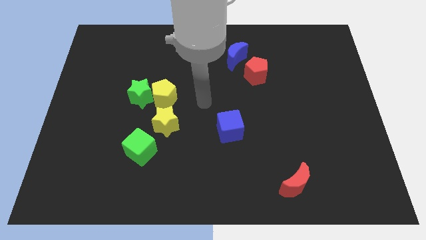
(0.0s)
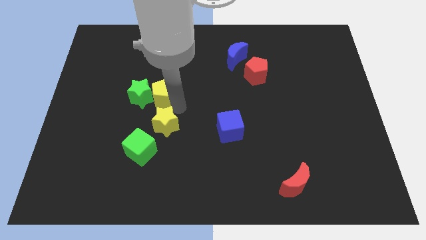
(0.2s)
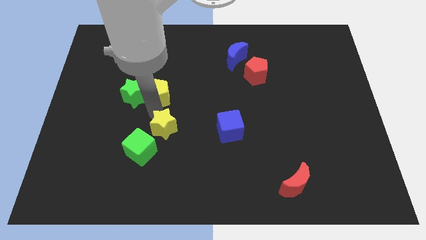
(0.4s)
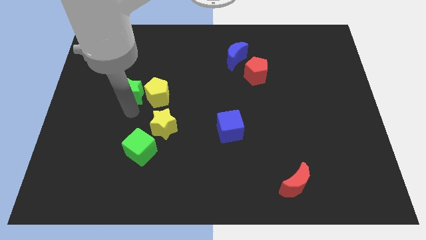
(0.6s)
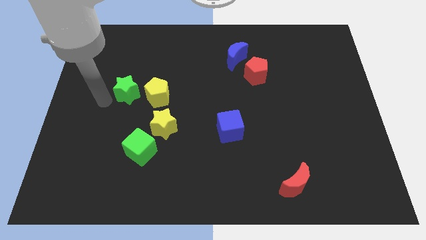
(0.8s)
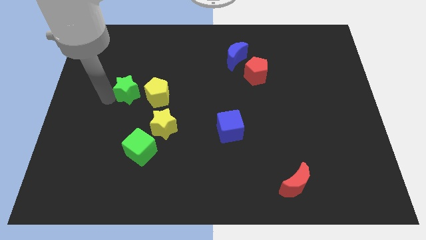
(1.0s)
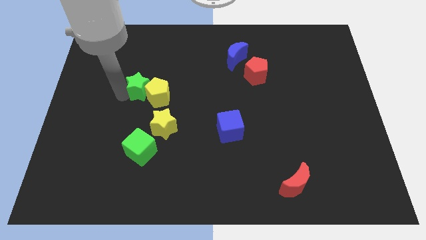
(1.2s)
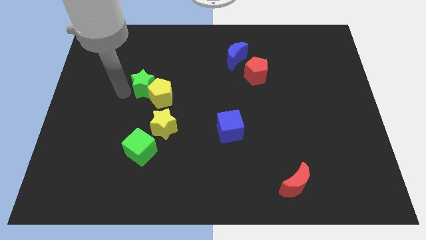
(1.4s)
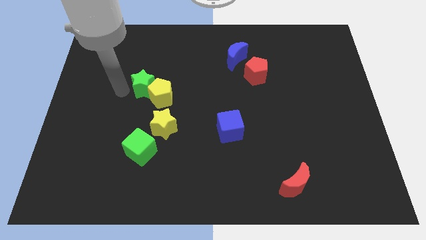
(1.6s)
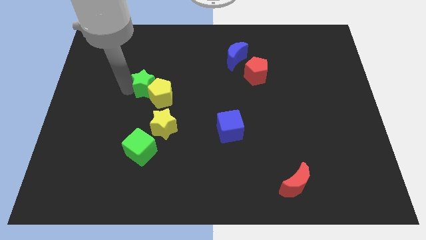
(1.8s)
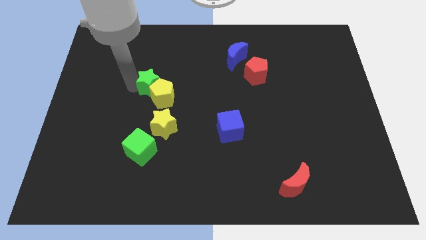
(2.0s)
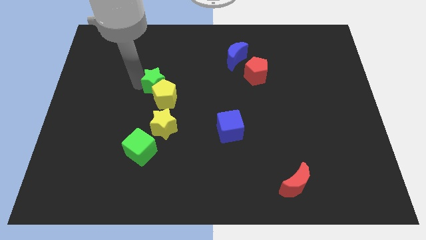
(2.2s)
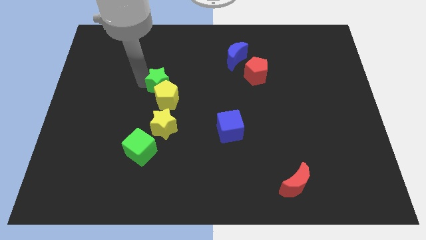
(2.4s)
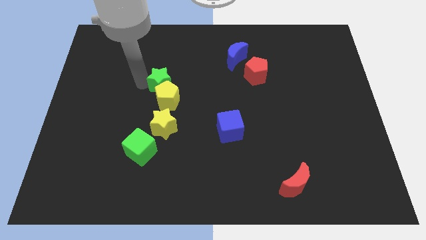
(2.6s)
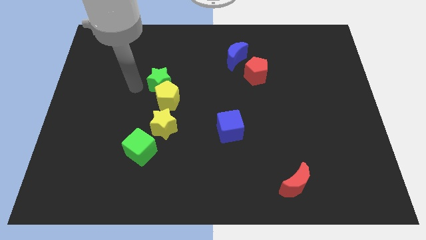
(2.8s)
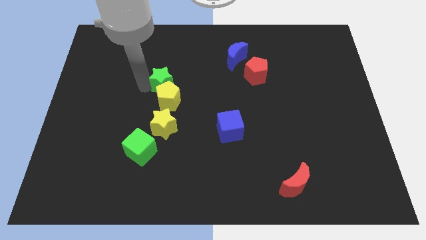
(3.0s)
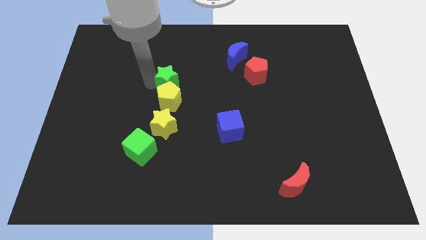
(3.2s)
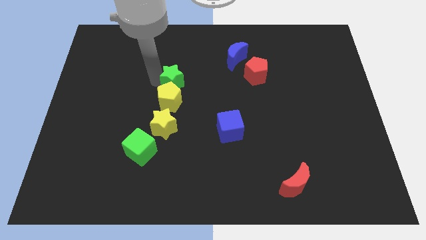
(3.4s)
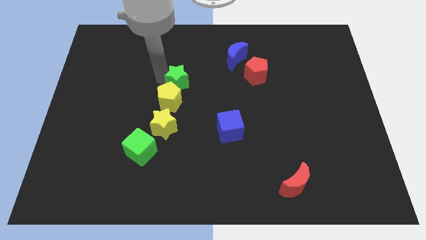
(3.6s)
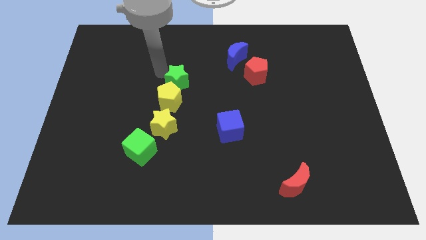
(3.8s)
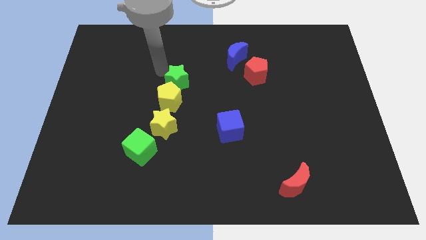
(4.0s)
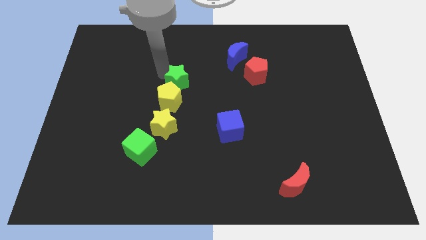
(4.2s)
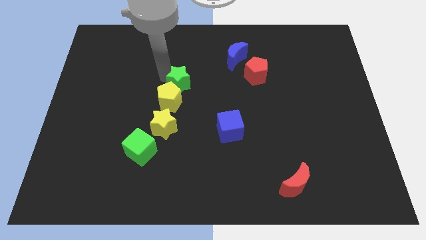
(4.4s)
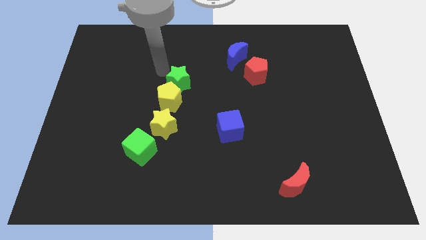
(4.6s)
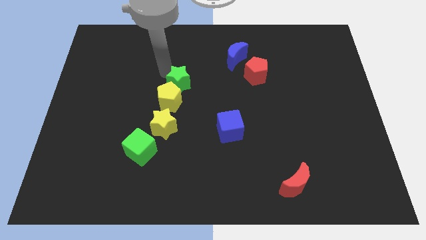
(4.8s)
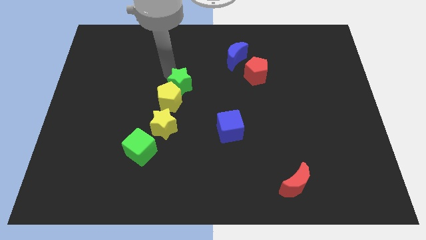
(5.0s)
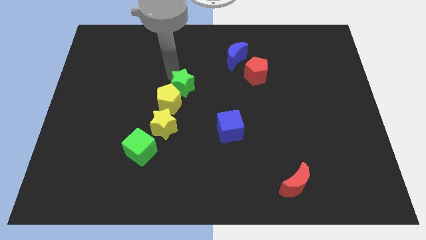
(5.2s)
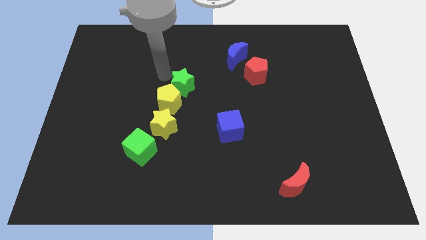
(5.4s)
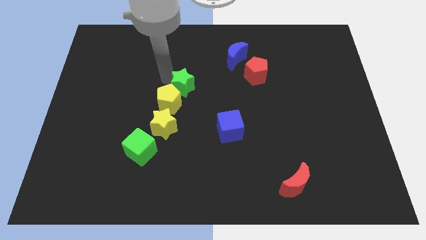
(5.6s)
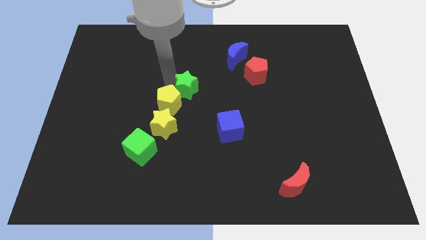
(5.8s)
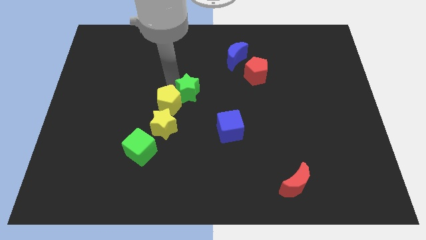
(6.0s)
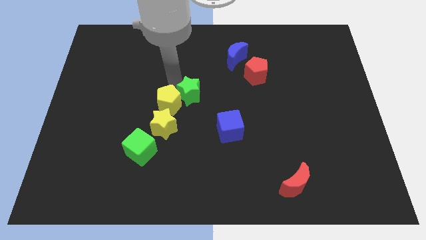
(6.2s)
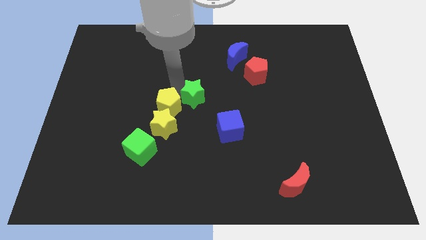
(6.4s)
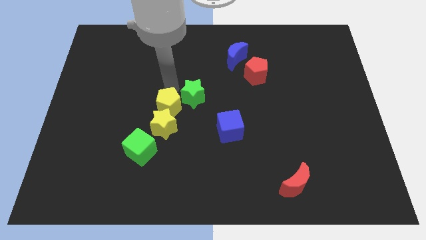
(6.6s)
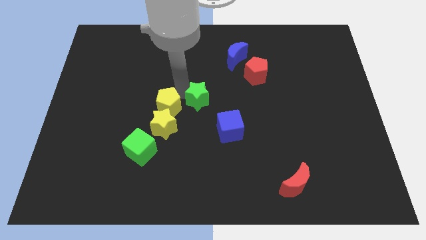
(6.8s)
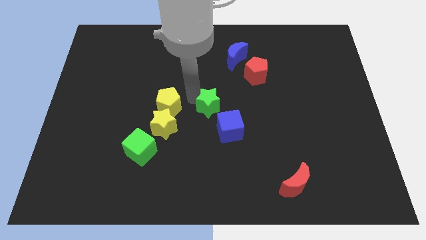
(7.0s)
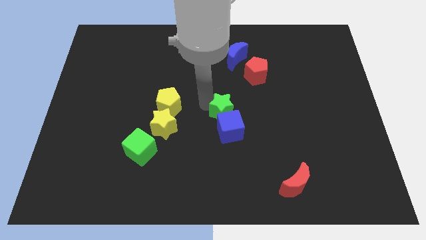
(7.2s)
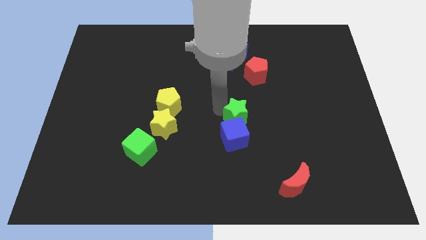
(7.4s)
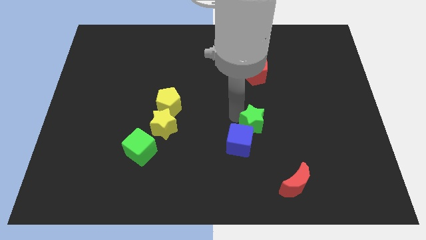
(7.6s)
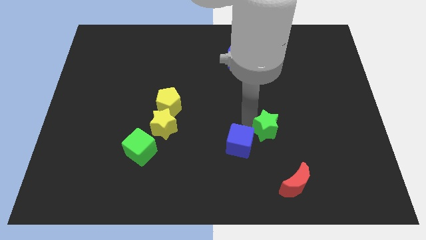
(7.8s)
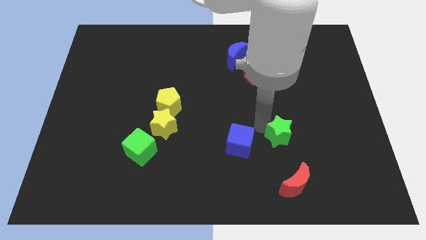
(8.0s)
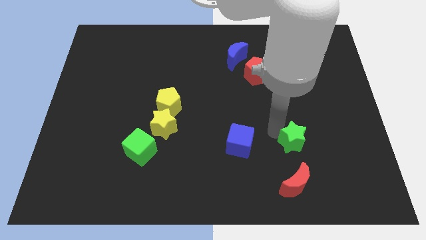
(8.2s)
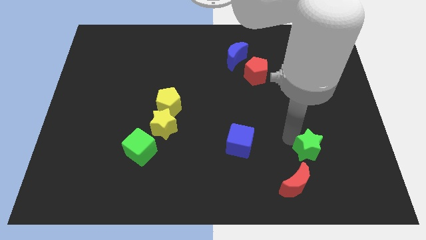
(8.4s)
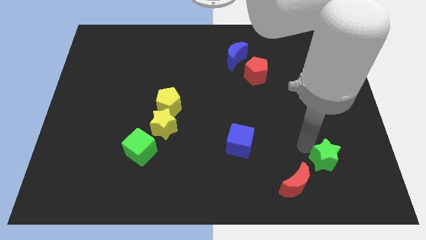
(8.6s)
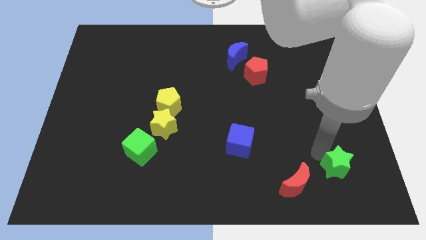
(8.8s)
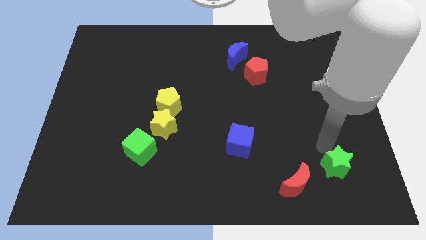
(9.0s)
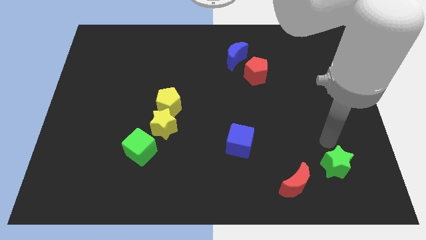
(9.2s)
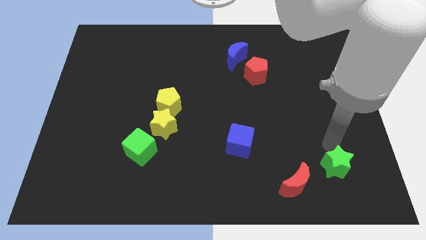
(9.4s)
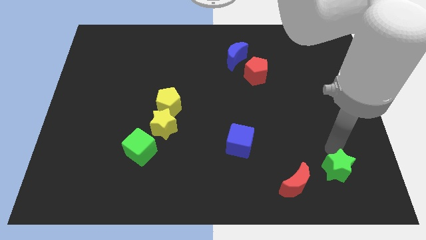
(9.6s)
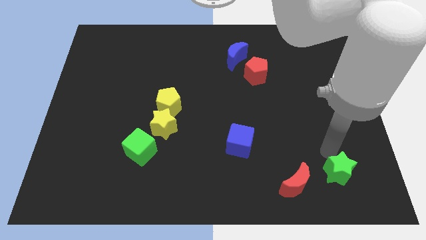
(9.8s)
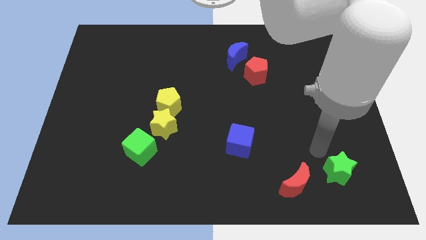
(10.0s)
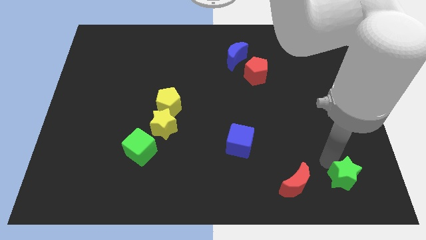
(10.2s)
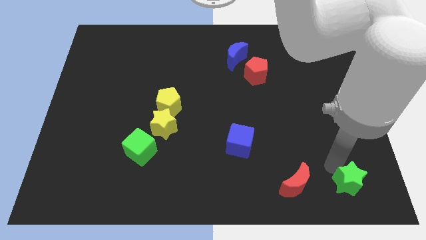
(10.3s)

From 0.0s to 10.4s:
slide the green star to the bottom right of the board

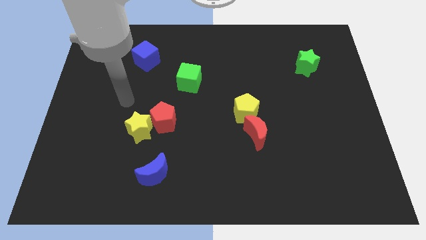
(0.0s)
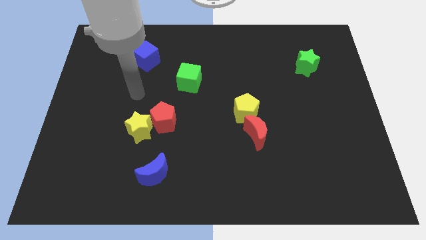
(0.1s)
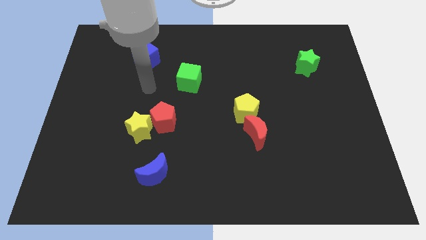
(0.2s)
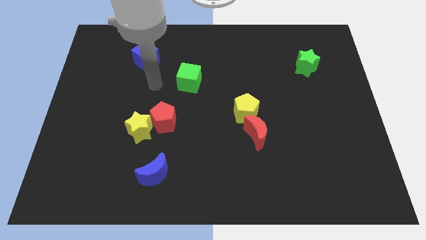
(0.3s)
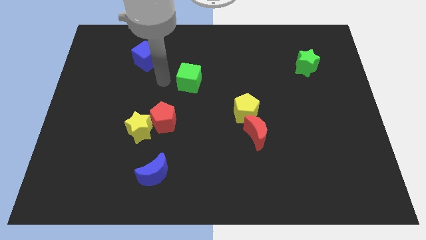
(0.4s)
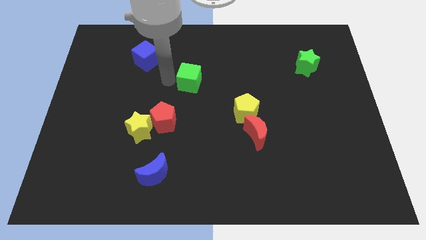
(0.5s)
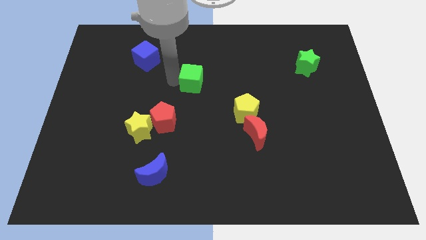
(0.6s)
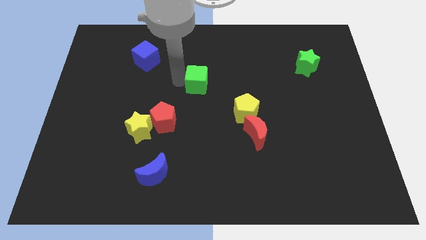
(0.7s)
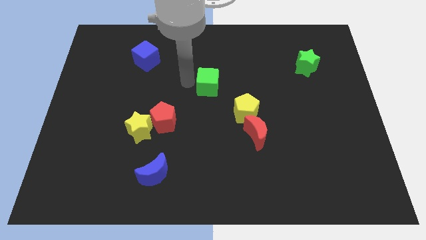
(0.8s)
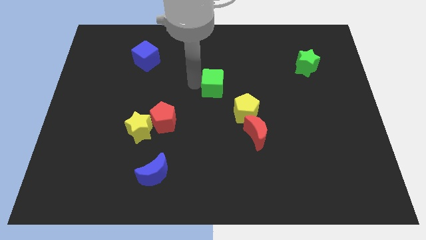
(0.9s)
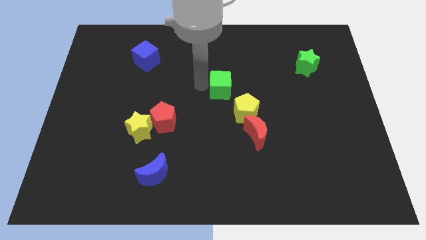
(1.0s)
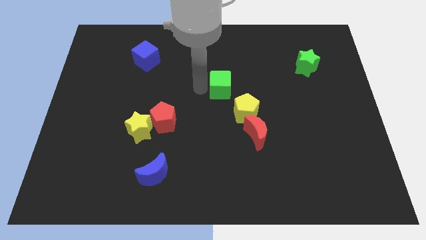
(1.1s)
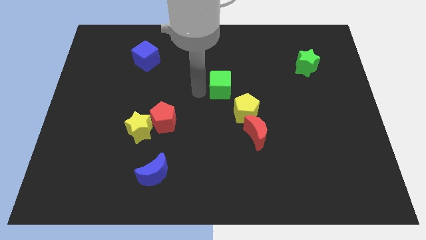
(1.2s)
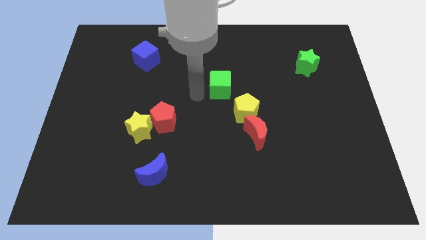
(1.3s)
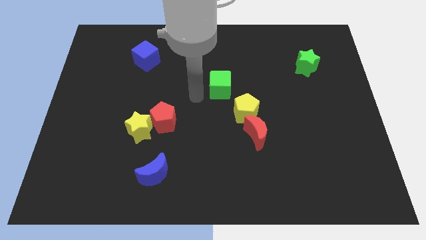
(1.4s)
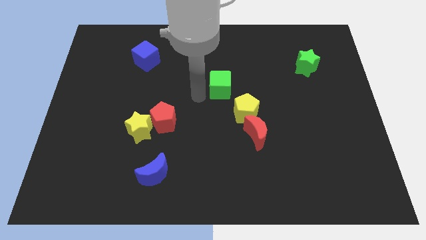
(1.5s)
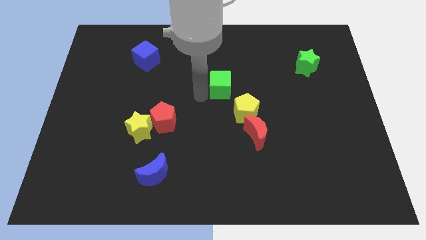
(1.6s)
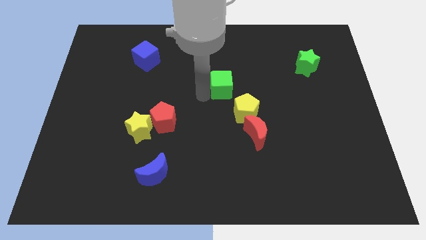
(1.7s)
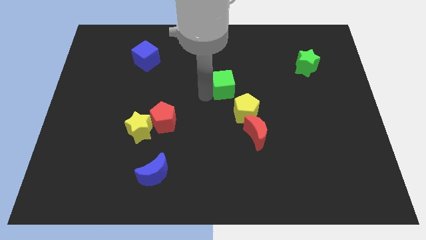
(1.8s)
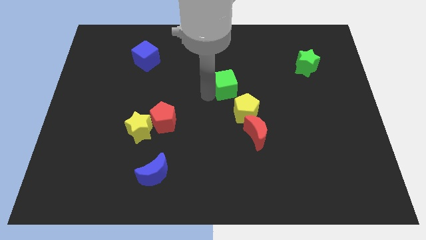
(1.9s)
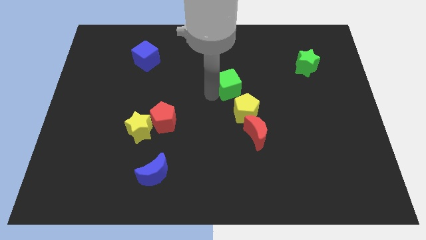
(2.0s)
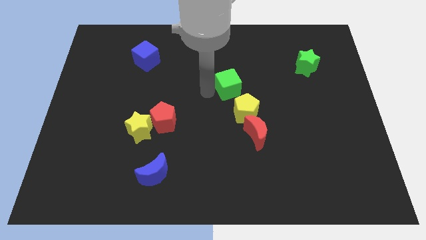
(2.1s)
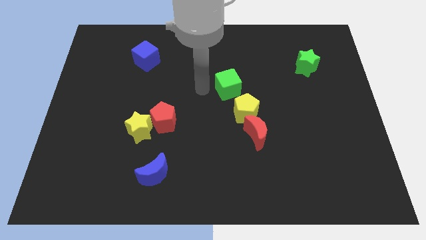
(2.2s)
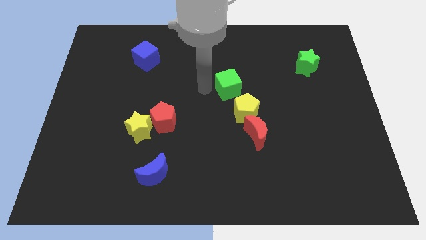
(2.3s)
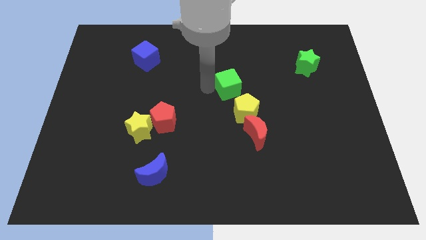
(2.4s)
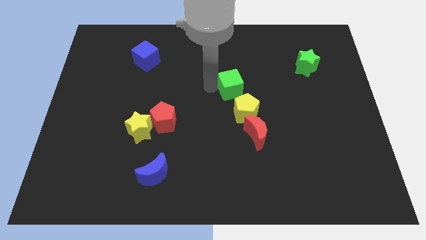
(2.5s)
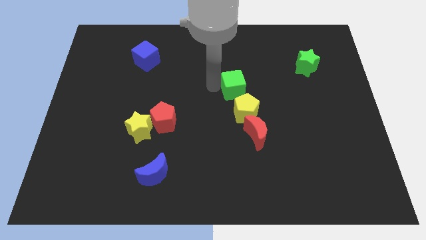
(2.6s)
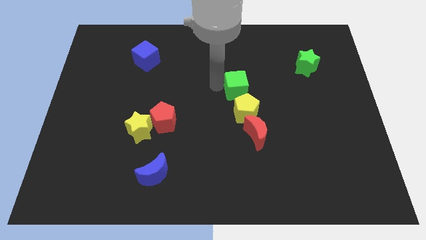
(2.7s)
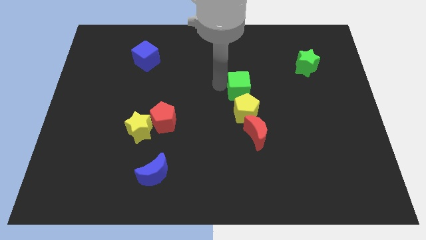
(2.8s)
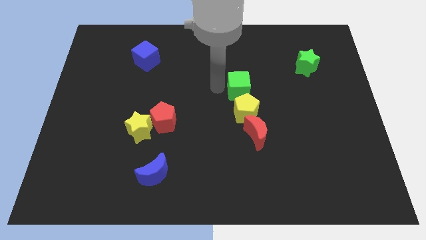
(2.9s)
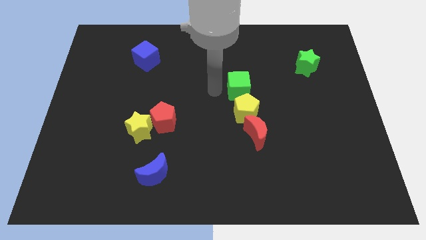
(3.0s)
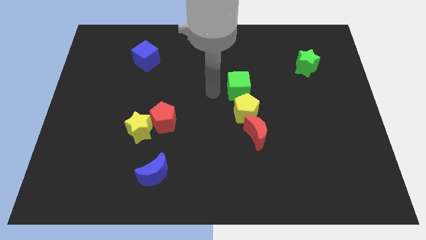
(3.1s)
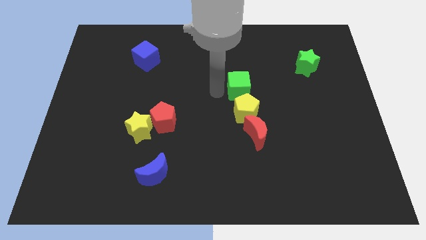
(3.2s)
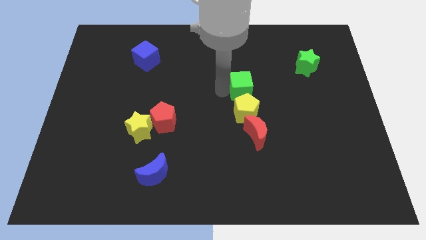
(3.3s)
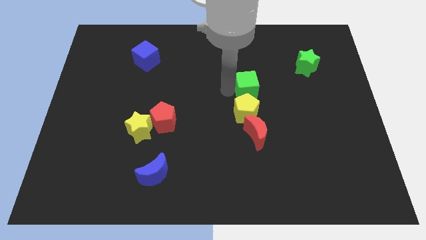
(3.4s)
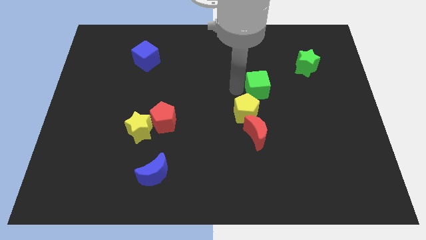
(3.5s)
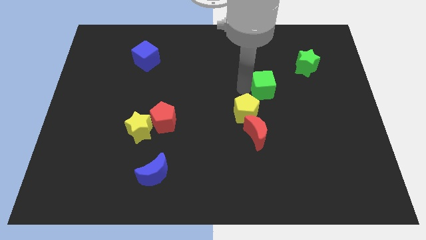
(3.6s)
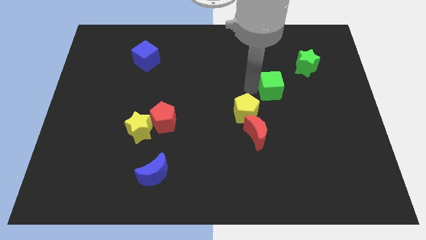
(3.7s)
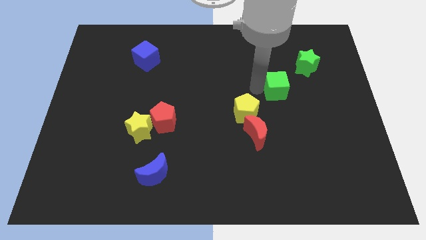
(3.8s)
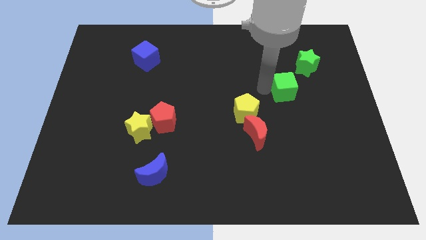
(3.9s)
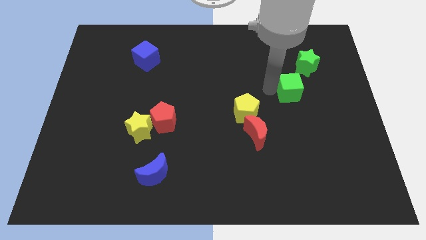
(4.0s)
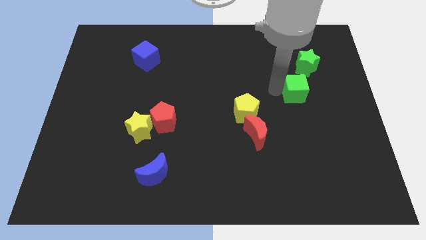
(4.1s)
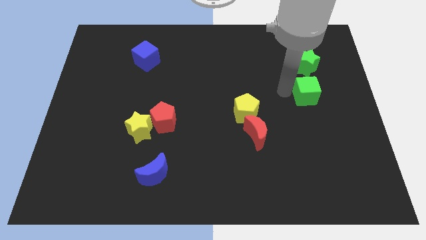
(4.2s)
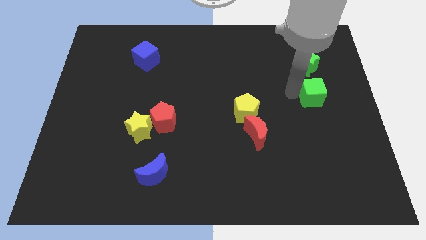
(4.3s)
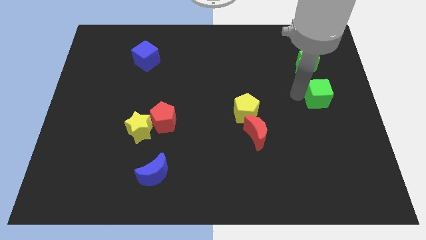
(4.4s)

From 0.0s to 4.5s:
move the green cube to the right side of the board
